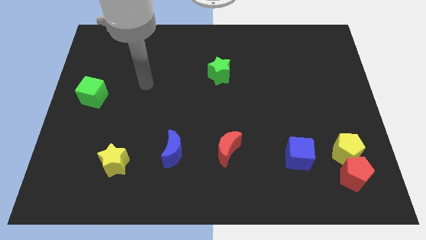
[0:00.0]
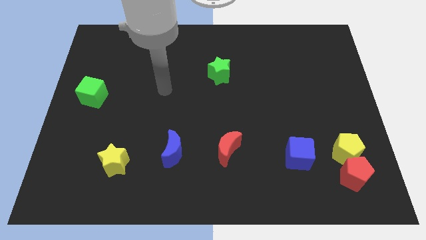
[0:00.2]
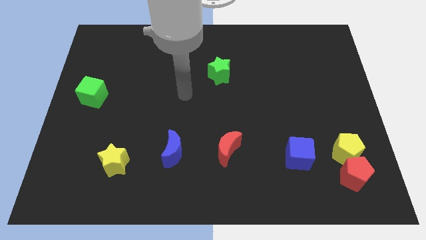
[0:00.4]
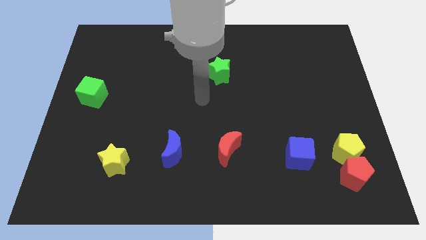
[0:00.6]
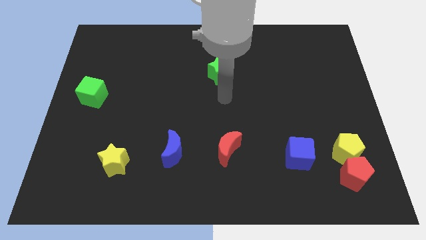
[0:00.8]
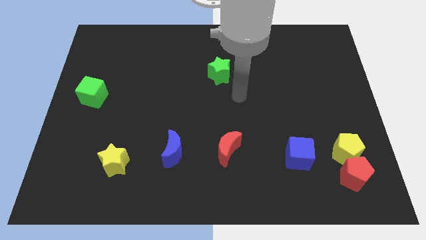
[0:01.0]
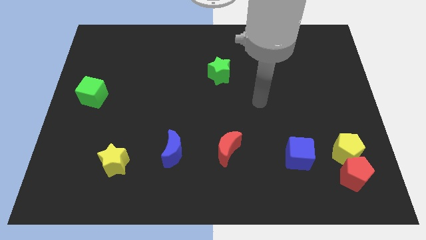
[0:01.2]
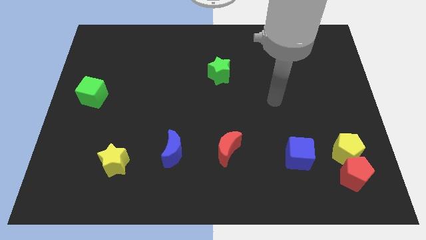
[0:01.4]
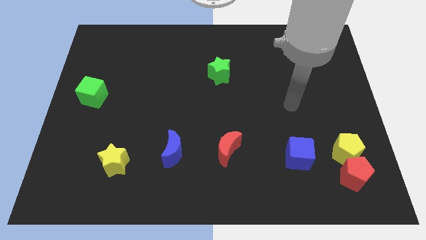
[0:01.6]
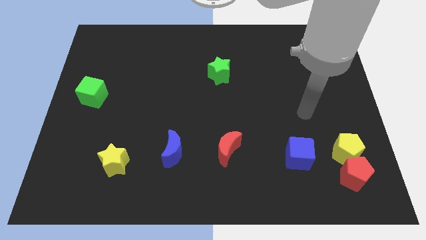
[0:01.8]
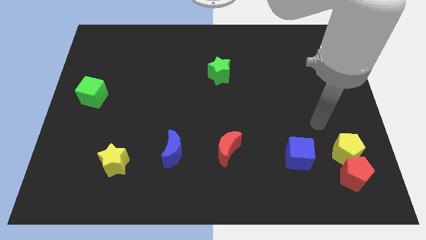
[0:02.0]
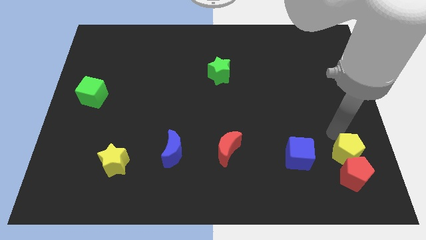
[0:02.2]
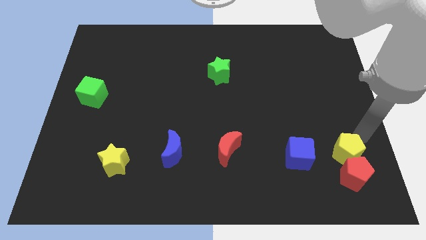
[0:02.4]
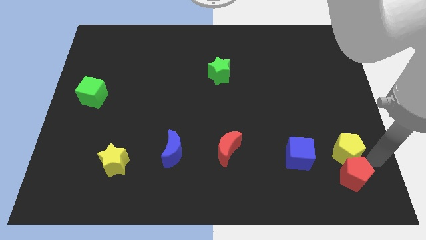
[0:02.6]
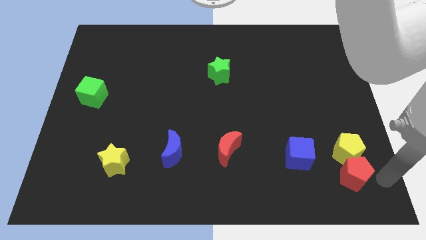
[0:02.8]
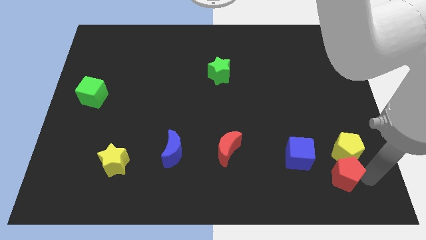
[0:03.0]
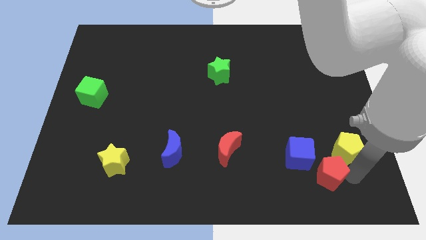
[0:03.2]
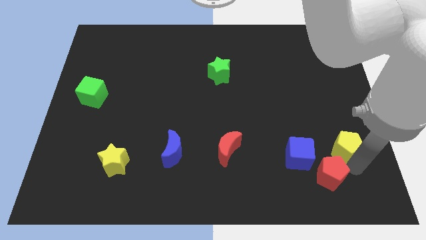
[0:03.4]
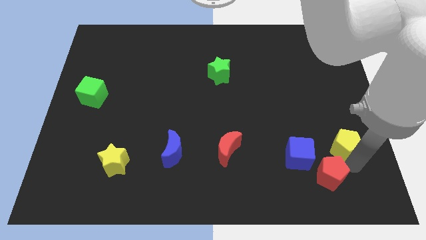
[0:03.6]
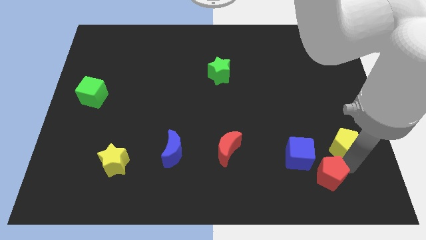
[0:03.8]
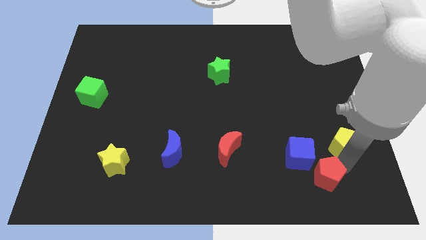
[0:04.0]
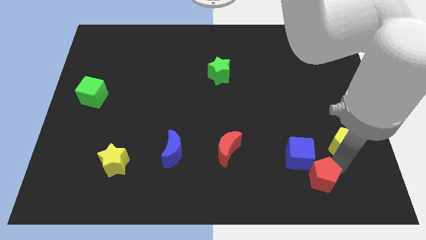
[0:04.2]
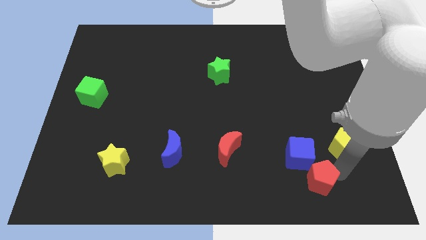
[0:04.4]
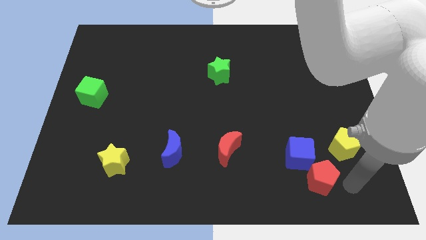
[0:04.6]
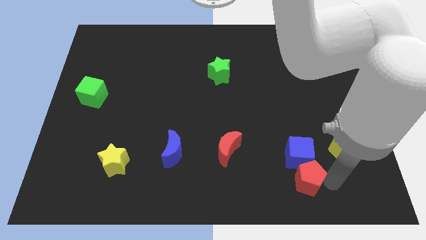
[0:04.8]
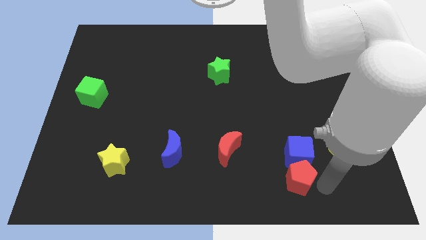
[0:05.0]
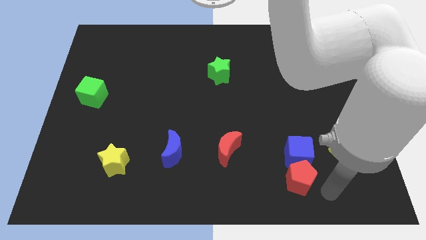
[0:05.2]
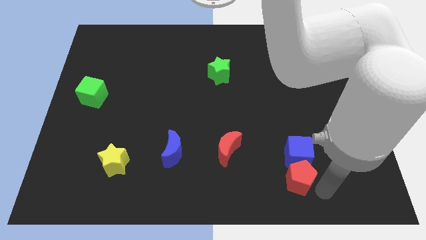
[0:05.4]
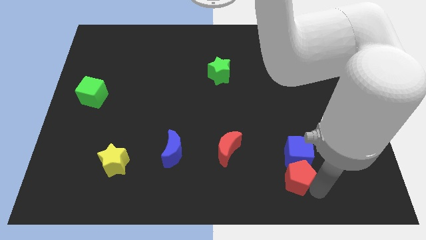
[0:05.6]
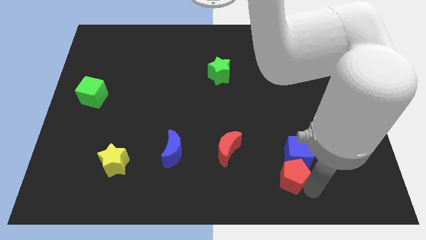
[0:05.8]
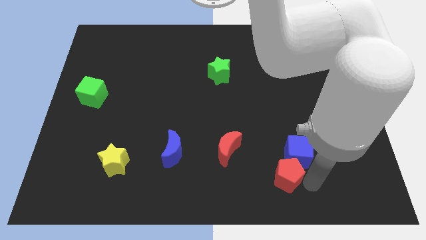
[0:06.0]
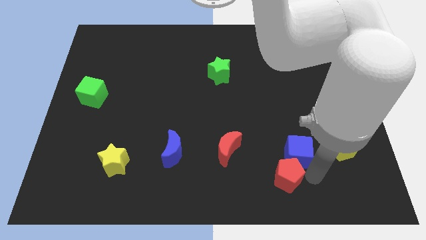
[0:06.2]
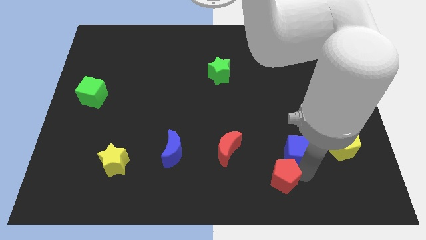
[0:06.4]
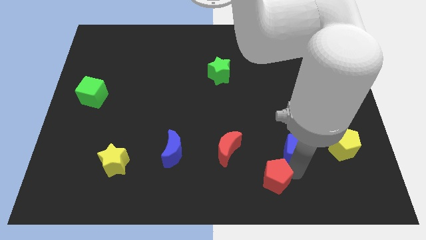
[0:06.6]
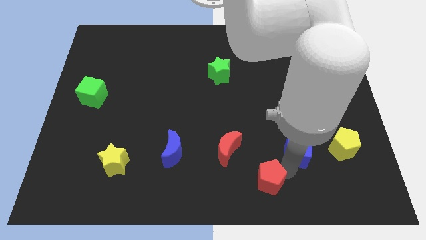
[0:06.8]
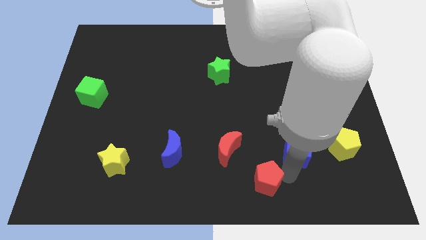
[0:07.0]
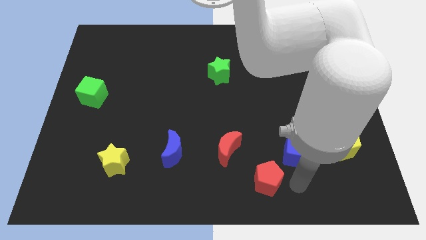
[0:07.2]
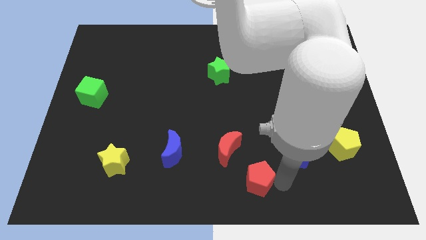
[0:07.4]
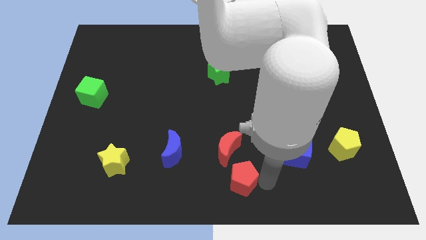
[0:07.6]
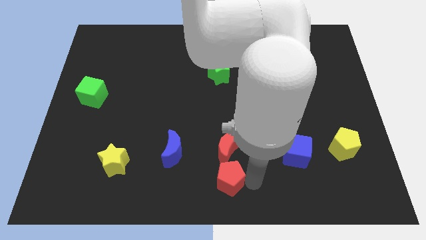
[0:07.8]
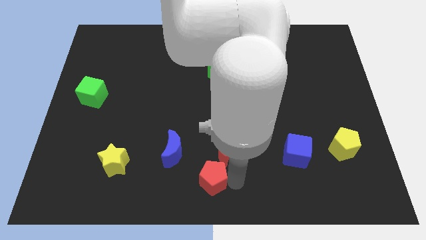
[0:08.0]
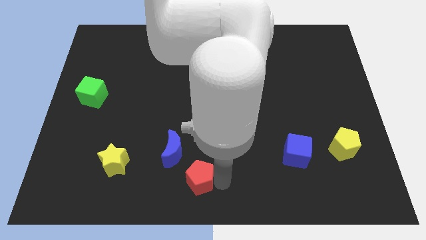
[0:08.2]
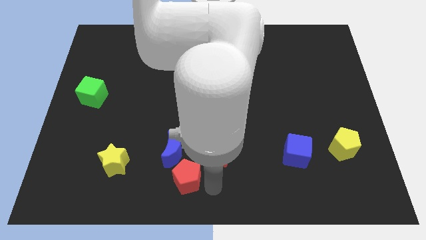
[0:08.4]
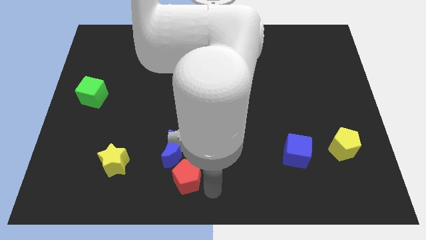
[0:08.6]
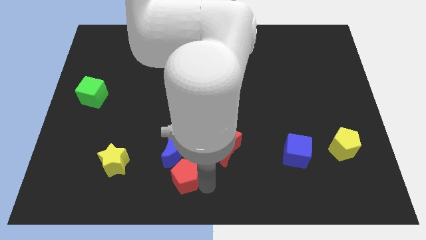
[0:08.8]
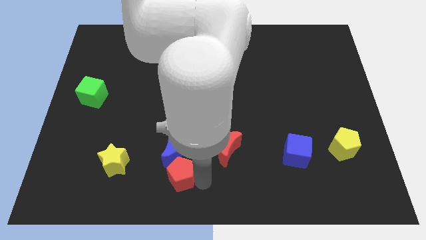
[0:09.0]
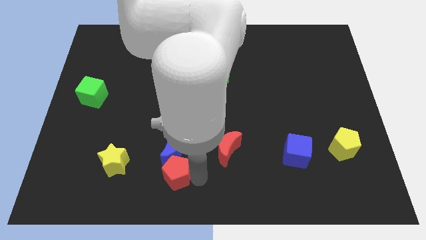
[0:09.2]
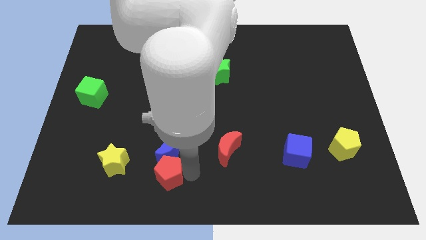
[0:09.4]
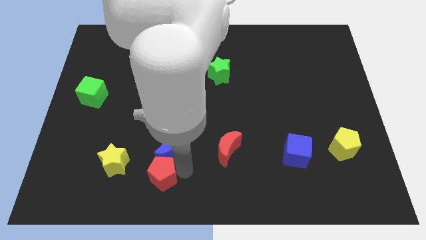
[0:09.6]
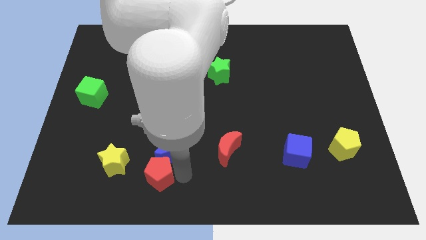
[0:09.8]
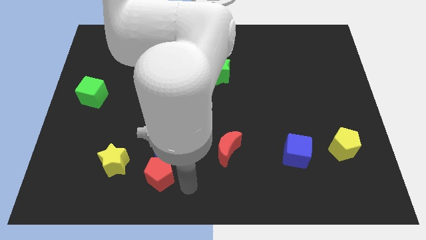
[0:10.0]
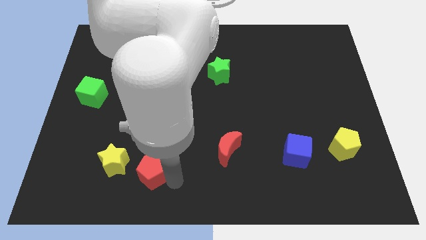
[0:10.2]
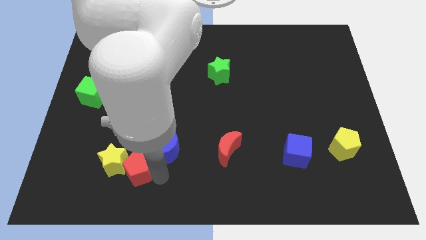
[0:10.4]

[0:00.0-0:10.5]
push the red pentagon next to the yellow star

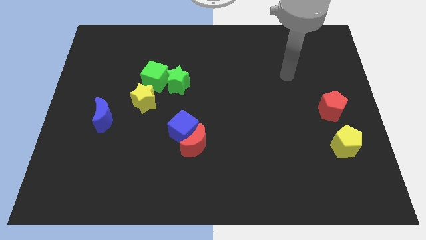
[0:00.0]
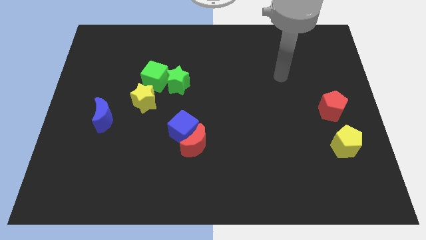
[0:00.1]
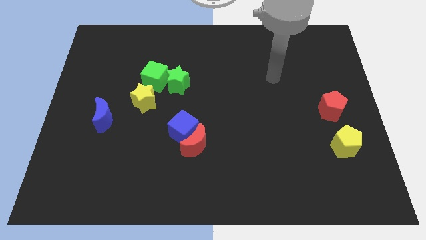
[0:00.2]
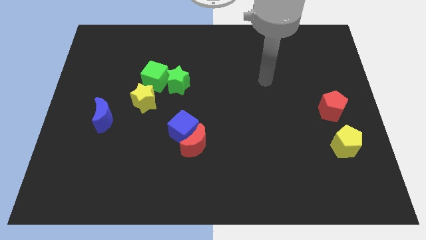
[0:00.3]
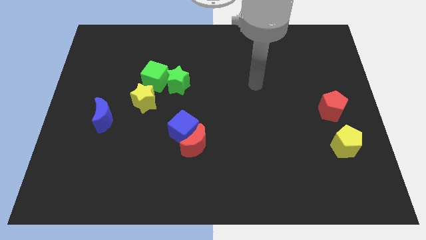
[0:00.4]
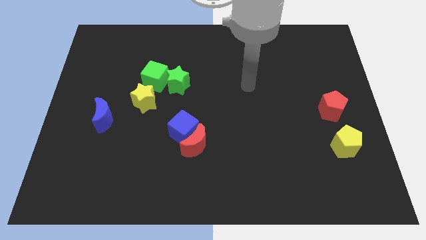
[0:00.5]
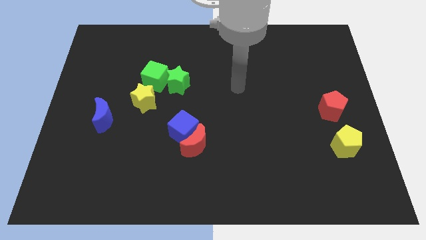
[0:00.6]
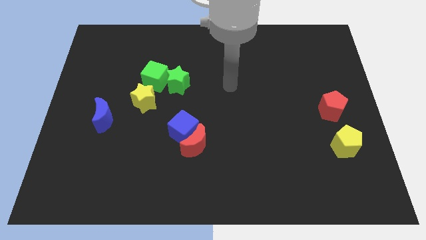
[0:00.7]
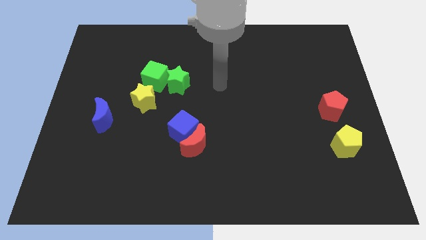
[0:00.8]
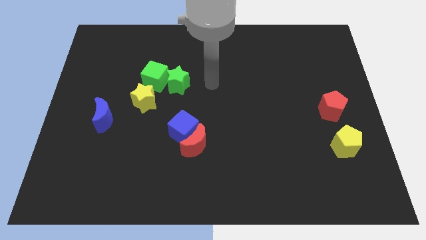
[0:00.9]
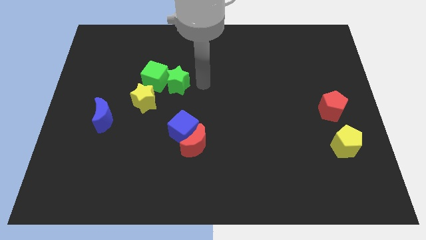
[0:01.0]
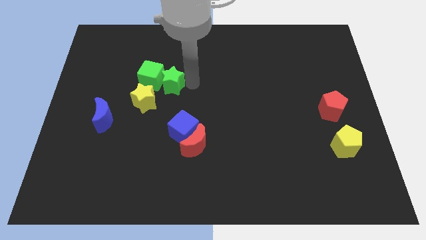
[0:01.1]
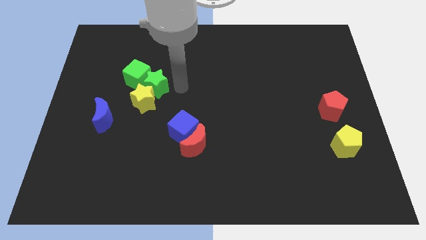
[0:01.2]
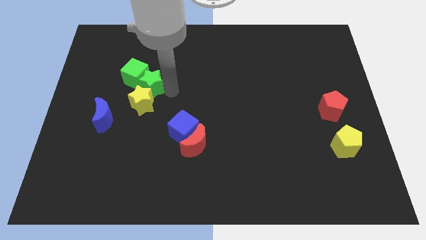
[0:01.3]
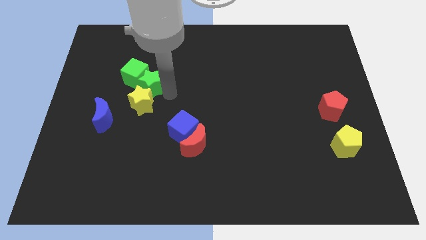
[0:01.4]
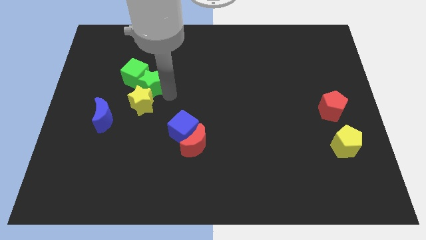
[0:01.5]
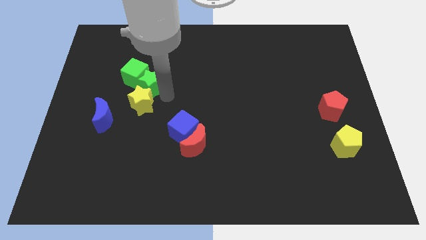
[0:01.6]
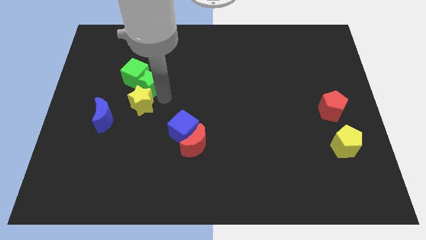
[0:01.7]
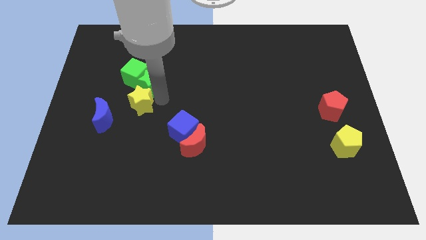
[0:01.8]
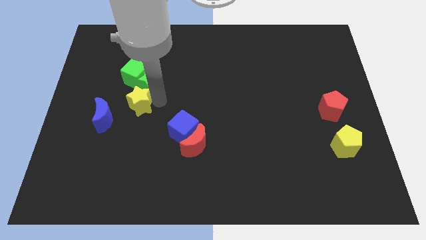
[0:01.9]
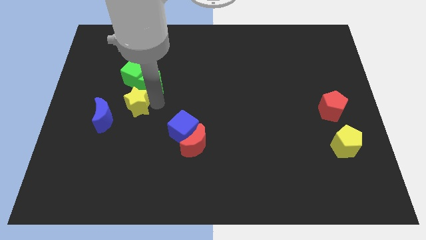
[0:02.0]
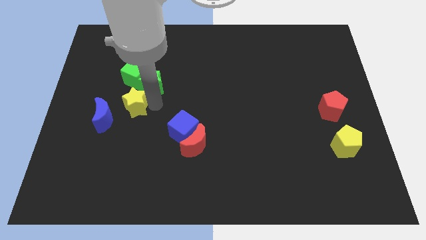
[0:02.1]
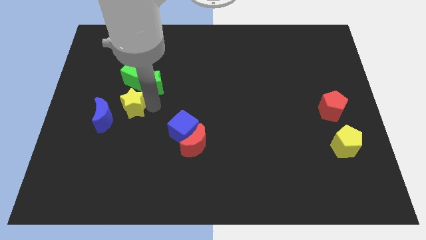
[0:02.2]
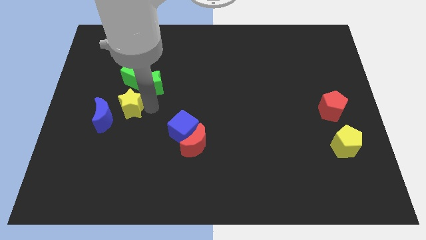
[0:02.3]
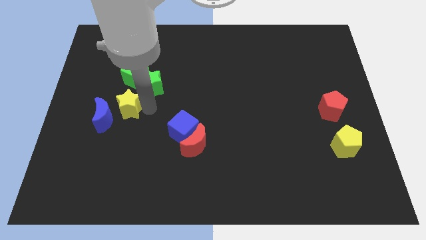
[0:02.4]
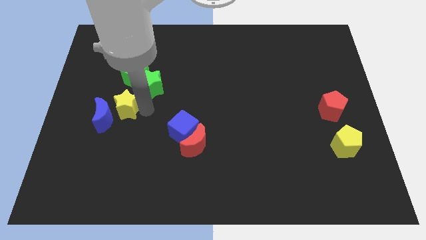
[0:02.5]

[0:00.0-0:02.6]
put the yellow star next to the blue moon
